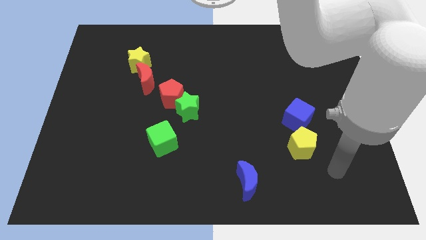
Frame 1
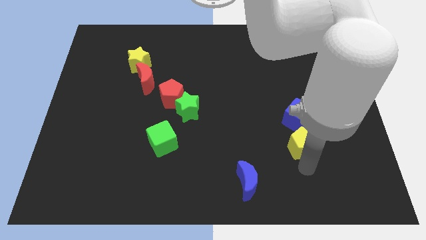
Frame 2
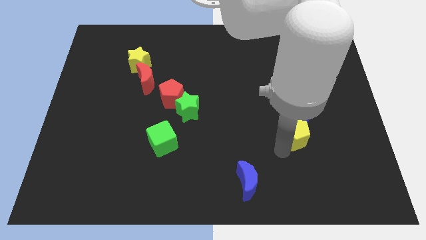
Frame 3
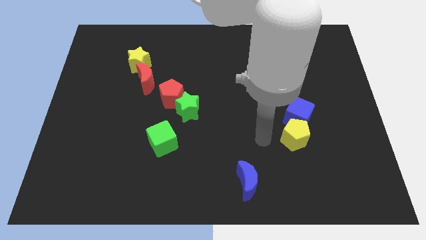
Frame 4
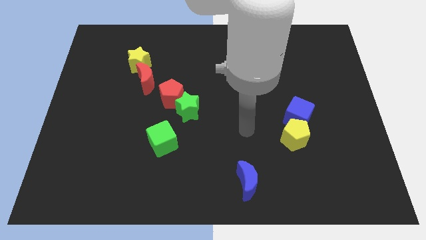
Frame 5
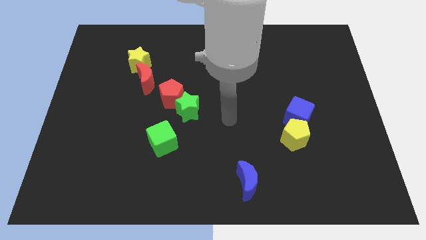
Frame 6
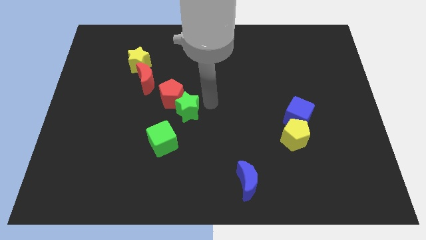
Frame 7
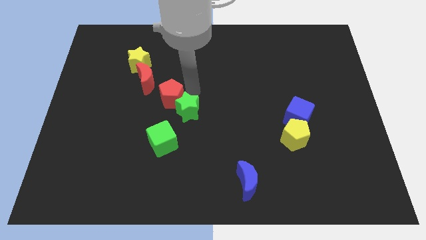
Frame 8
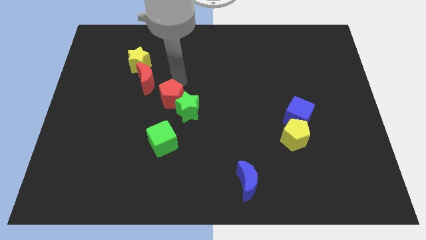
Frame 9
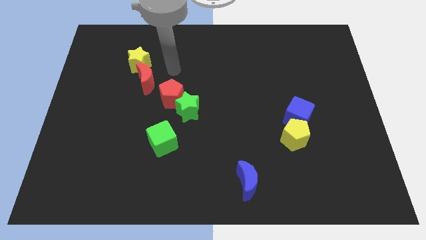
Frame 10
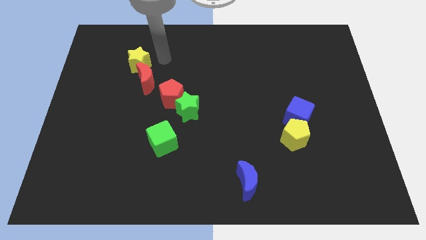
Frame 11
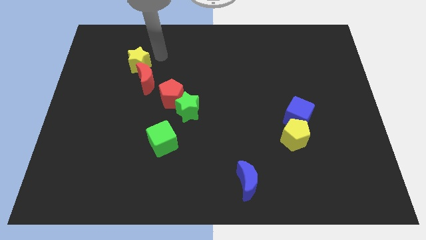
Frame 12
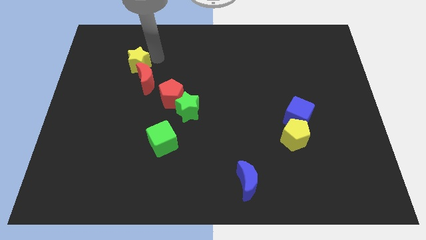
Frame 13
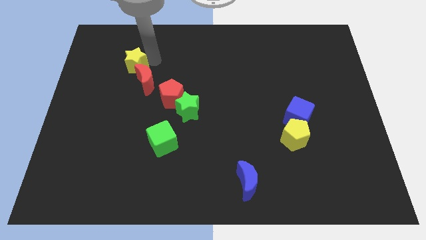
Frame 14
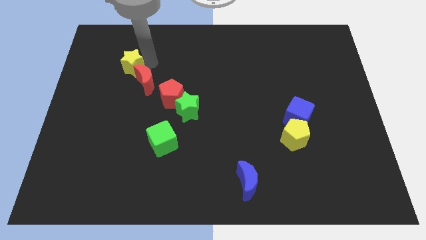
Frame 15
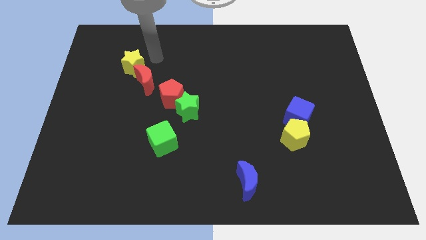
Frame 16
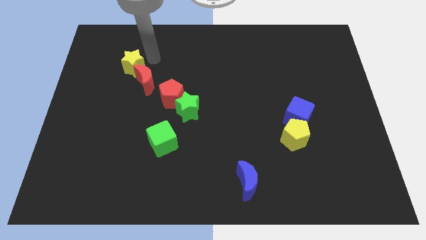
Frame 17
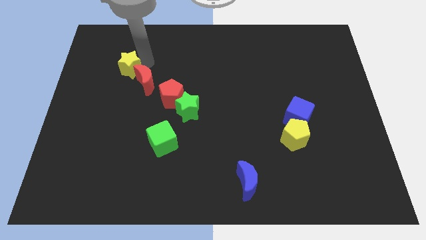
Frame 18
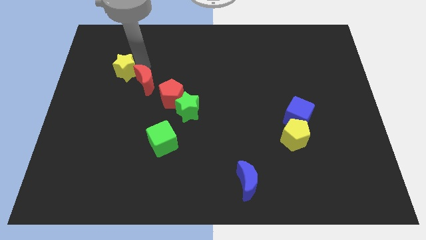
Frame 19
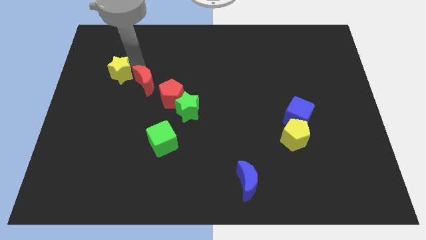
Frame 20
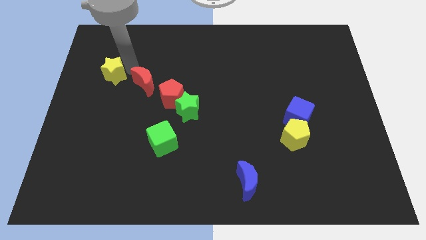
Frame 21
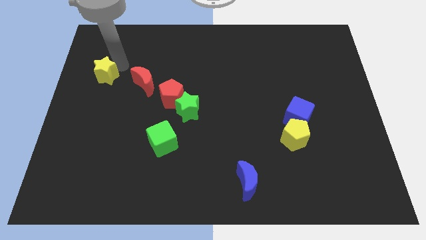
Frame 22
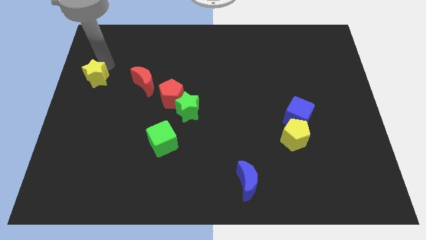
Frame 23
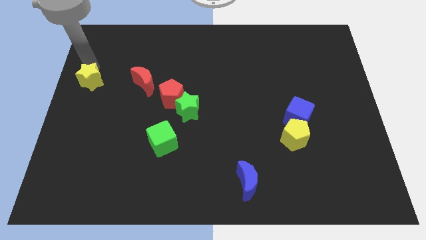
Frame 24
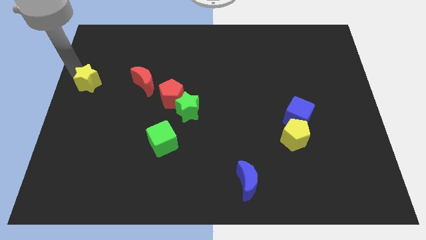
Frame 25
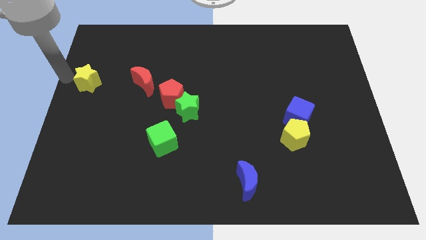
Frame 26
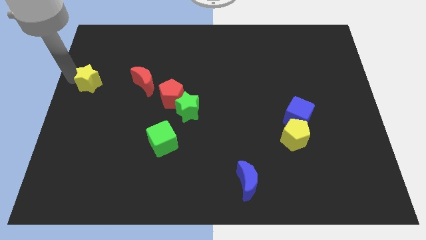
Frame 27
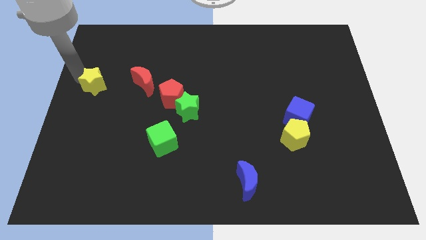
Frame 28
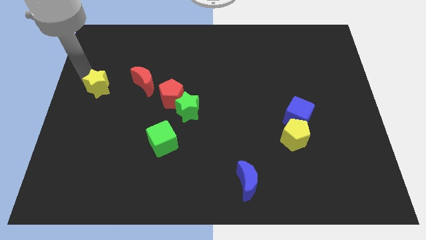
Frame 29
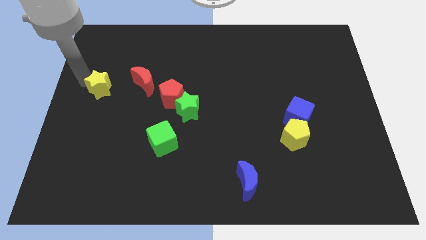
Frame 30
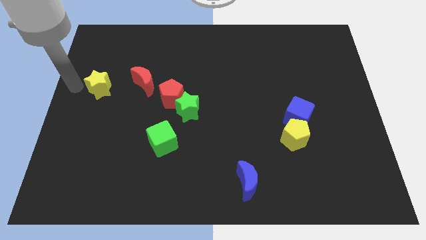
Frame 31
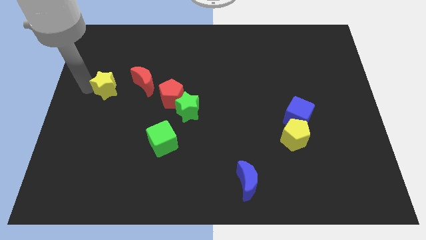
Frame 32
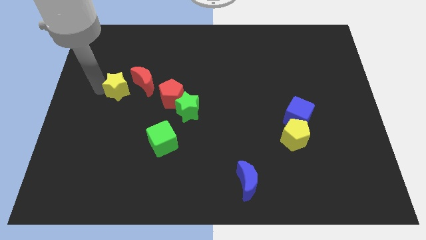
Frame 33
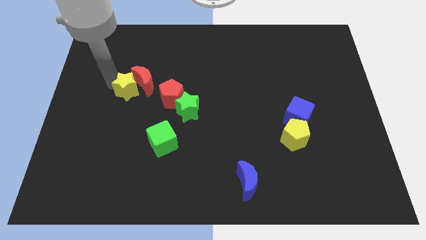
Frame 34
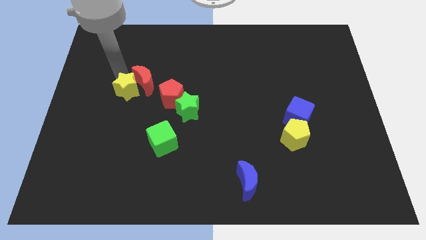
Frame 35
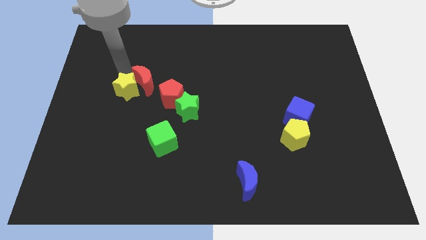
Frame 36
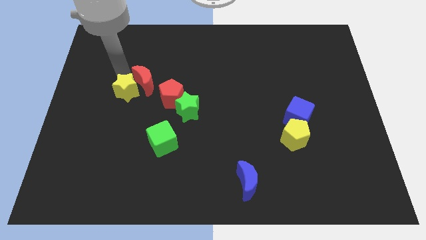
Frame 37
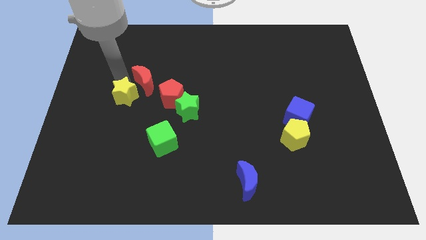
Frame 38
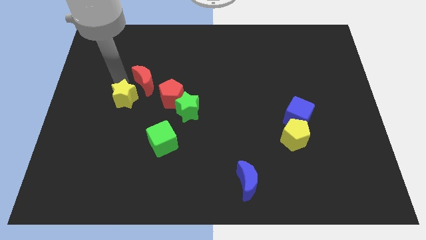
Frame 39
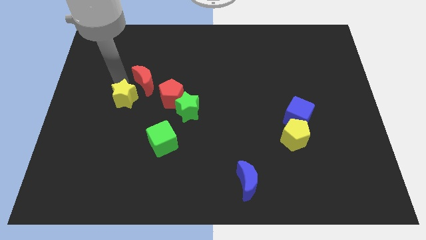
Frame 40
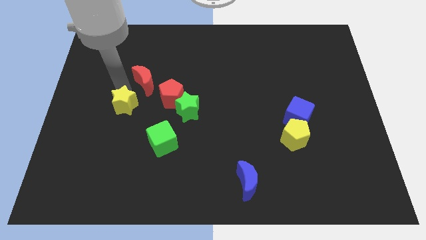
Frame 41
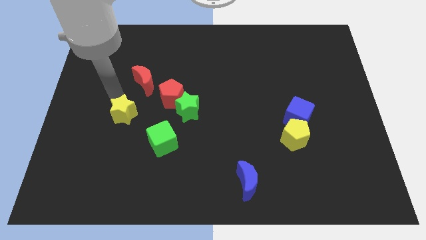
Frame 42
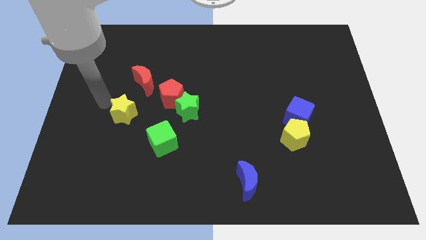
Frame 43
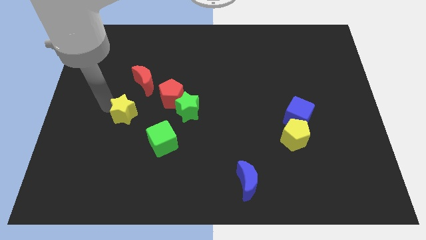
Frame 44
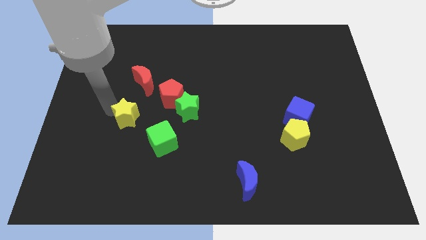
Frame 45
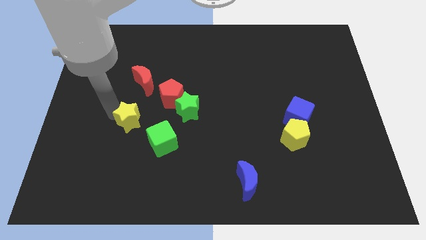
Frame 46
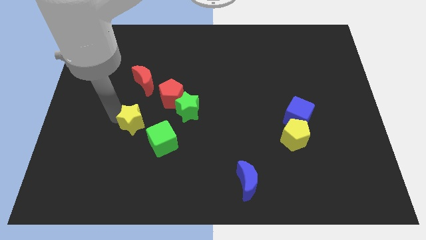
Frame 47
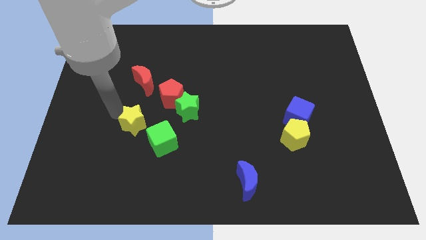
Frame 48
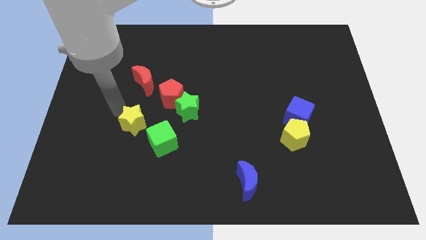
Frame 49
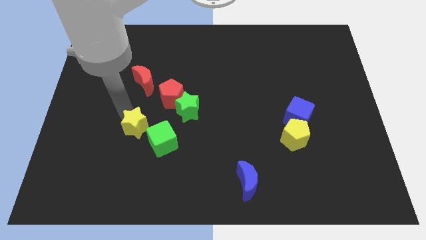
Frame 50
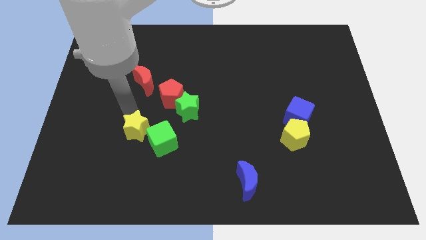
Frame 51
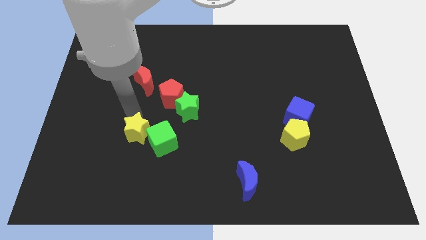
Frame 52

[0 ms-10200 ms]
slide the yellow star next to the green cube

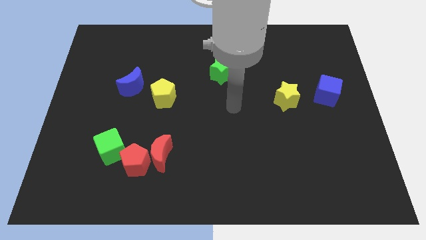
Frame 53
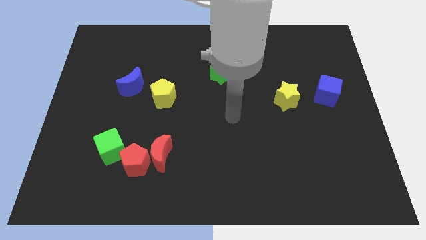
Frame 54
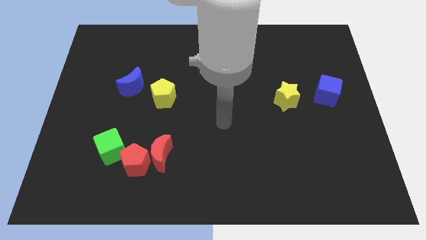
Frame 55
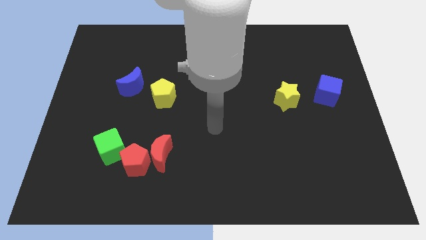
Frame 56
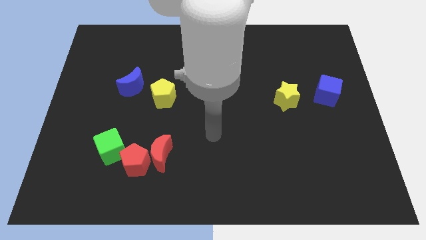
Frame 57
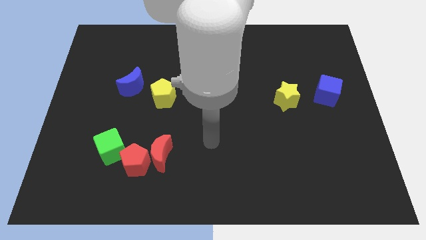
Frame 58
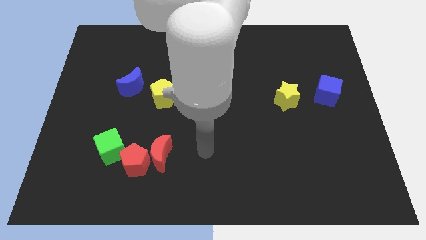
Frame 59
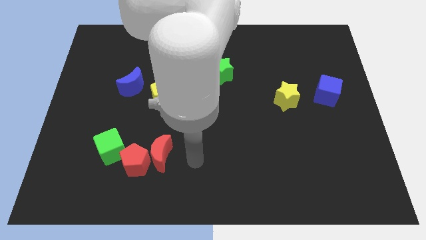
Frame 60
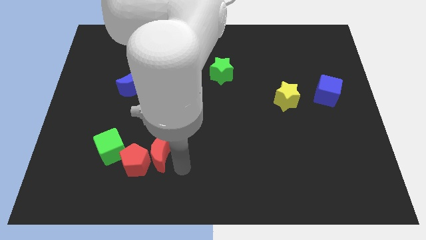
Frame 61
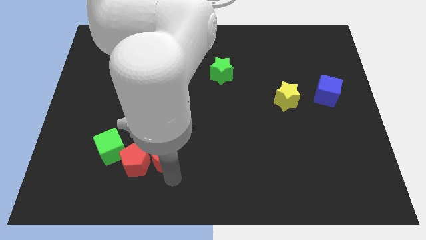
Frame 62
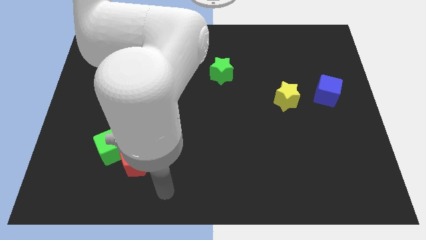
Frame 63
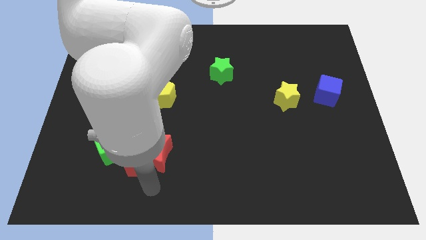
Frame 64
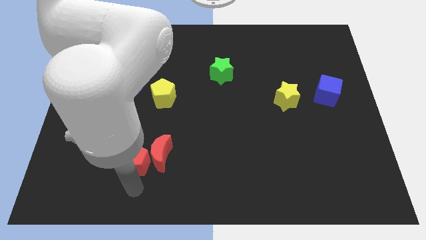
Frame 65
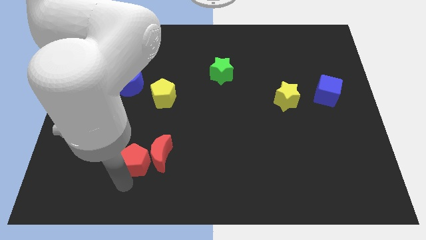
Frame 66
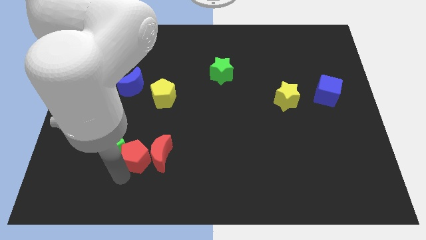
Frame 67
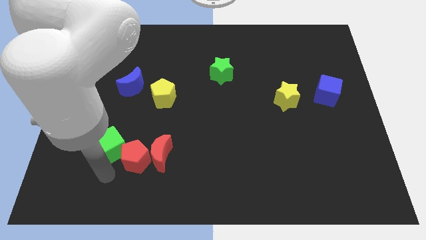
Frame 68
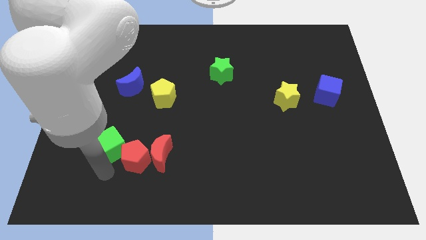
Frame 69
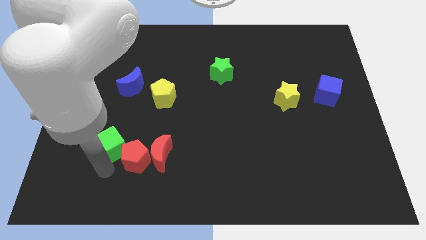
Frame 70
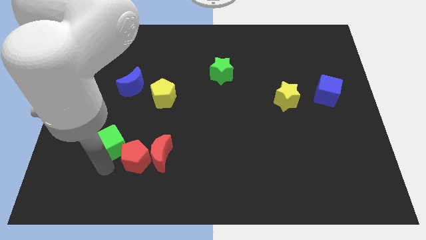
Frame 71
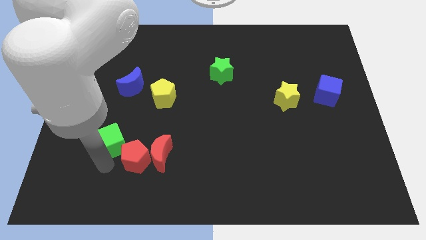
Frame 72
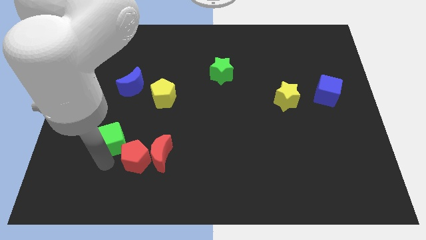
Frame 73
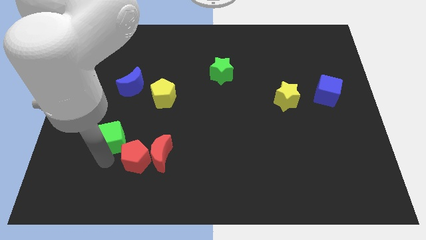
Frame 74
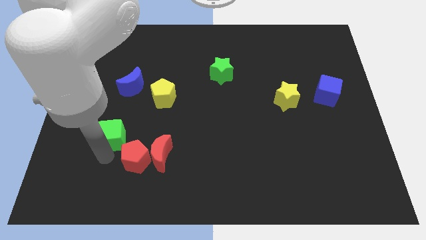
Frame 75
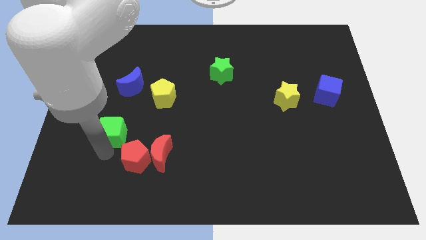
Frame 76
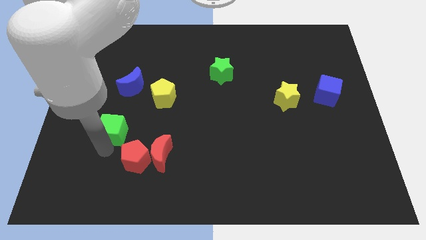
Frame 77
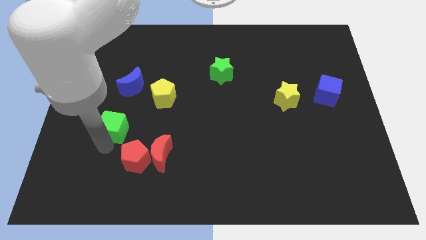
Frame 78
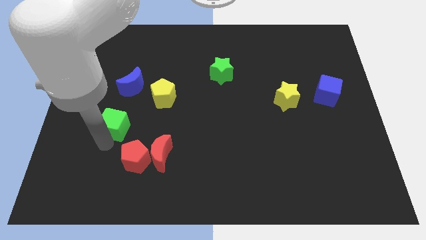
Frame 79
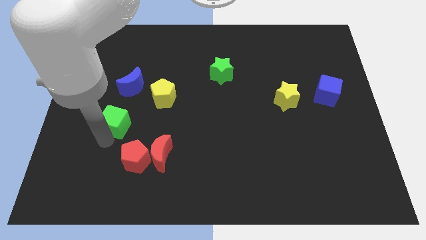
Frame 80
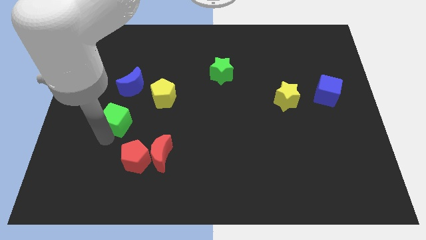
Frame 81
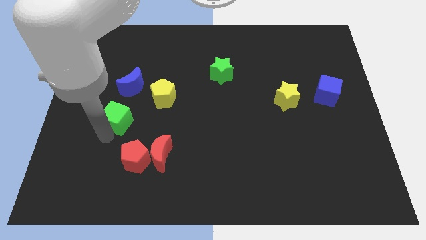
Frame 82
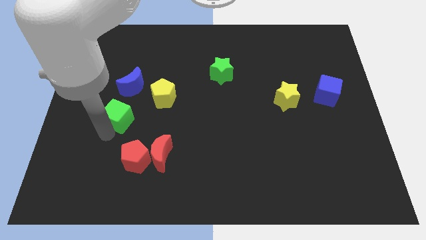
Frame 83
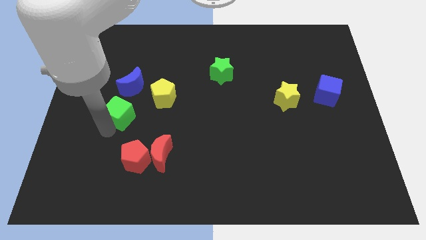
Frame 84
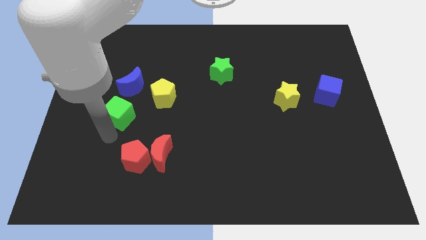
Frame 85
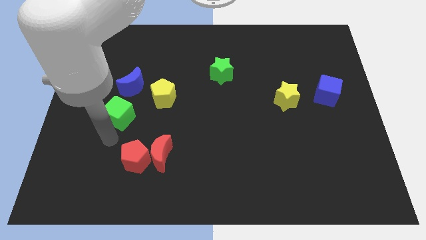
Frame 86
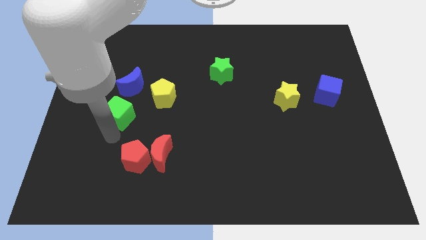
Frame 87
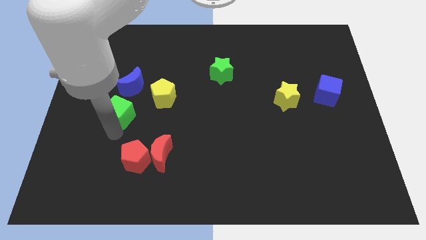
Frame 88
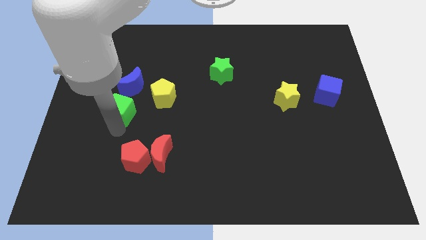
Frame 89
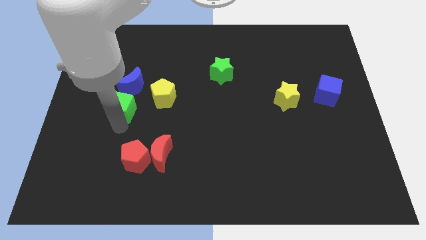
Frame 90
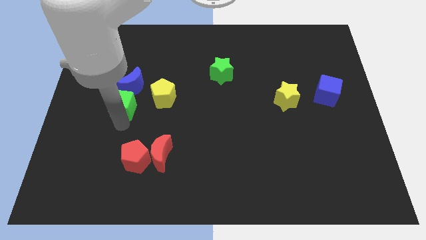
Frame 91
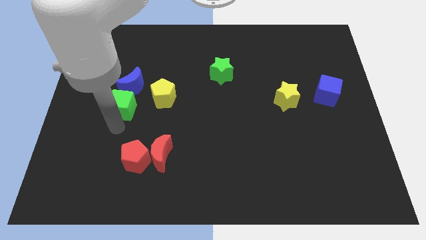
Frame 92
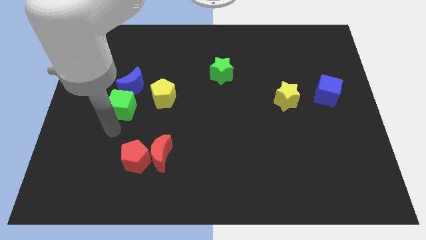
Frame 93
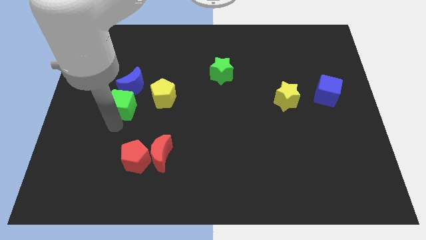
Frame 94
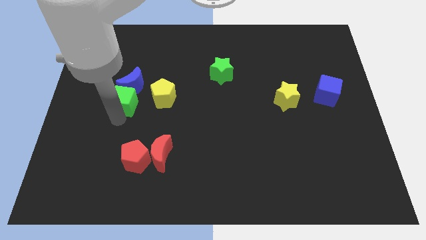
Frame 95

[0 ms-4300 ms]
put the green cube to the blue moon
